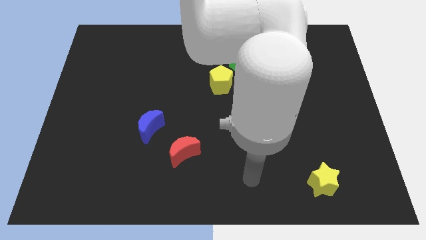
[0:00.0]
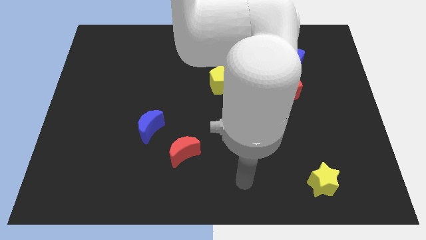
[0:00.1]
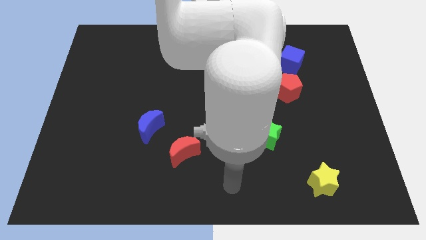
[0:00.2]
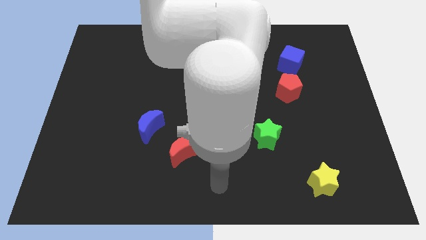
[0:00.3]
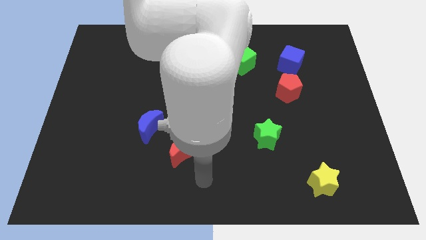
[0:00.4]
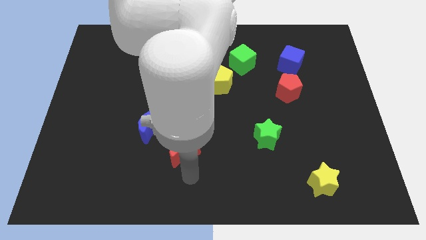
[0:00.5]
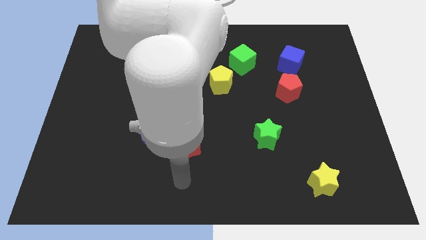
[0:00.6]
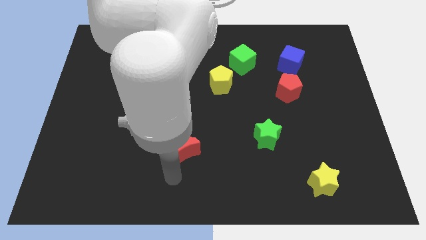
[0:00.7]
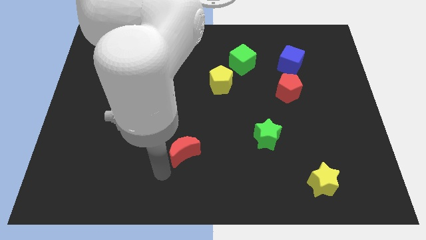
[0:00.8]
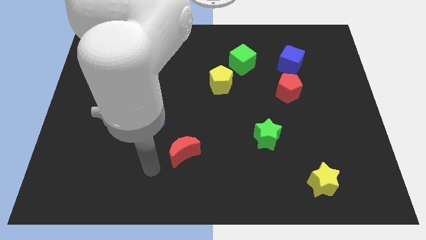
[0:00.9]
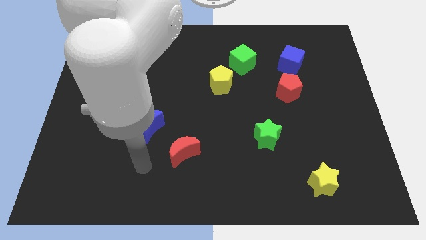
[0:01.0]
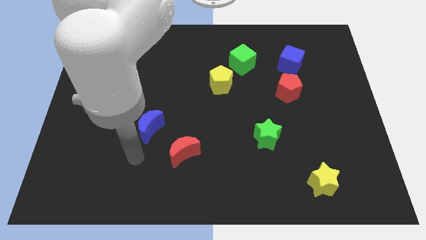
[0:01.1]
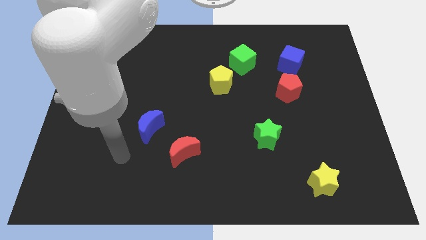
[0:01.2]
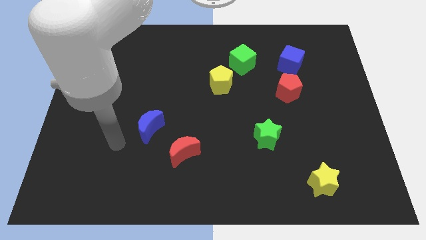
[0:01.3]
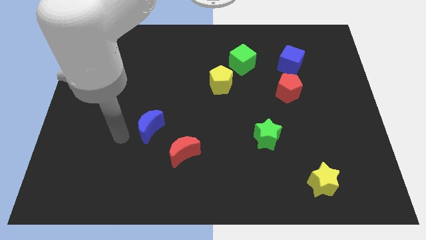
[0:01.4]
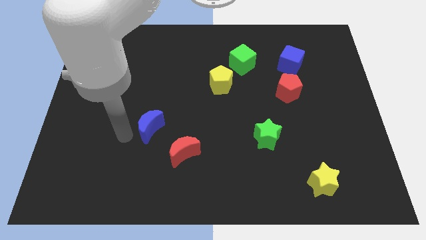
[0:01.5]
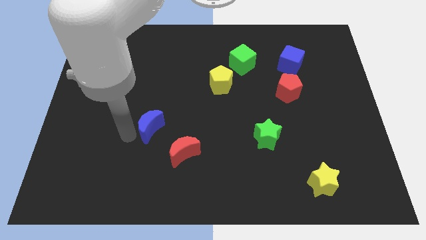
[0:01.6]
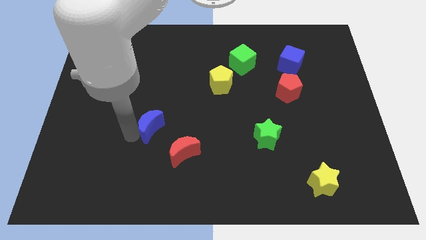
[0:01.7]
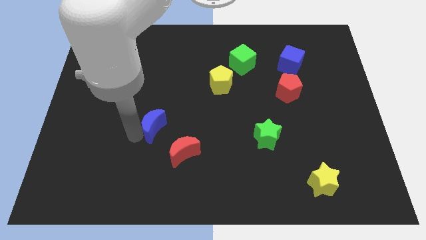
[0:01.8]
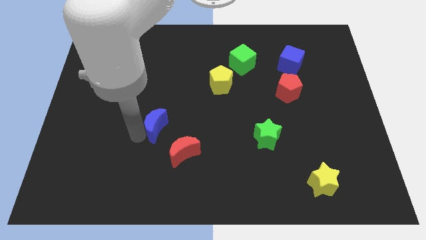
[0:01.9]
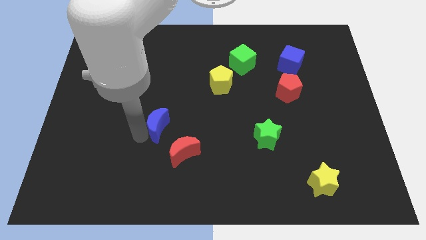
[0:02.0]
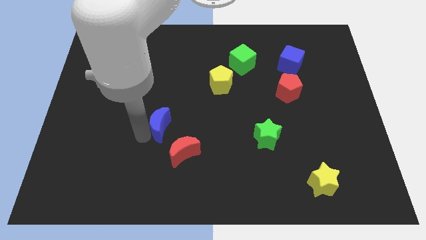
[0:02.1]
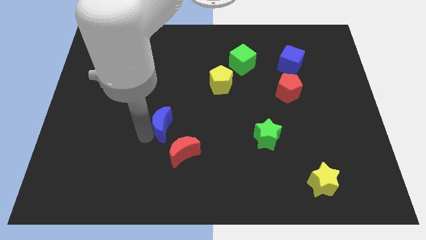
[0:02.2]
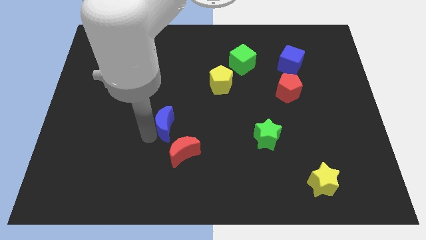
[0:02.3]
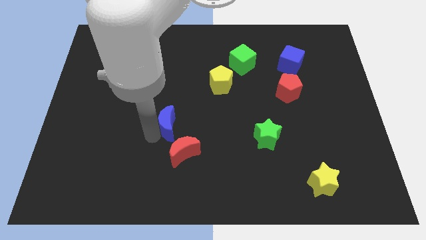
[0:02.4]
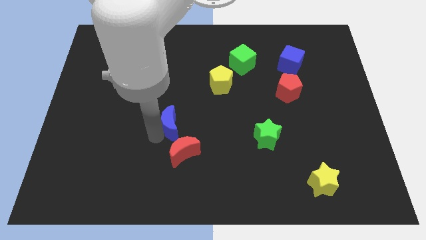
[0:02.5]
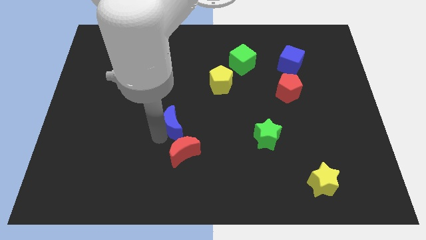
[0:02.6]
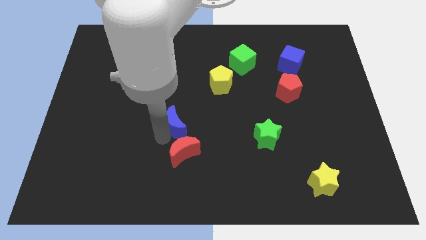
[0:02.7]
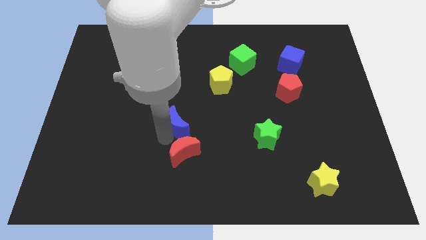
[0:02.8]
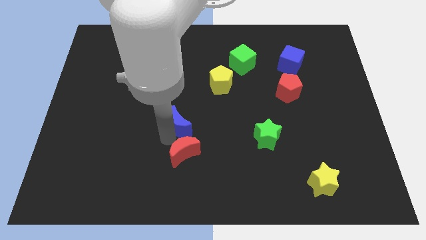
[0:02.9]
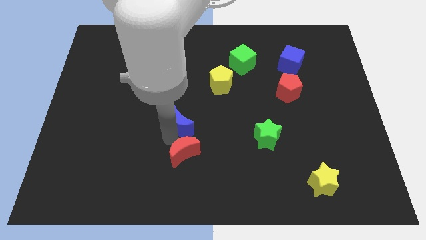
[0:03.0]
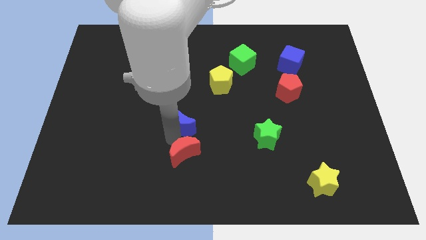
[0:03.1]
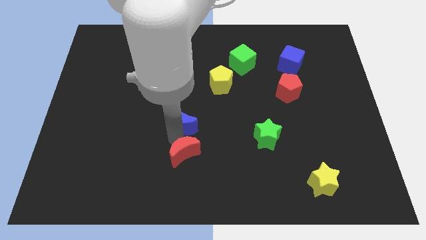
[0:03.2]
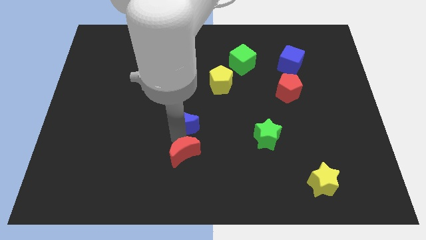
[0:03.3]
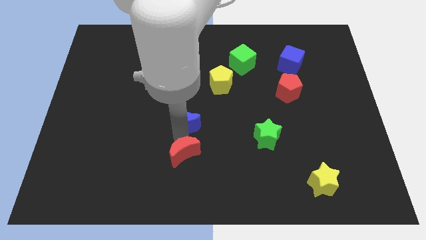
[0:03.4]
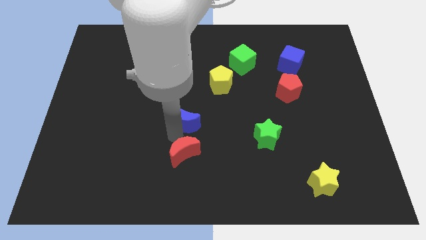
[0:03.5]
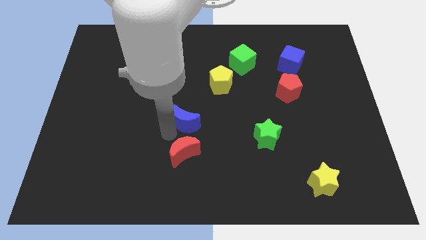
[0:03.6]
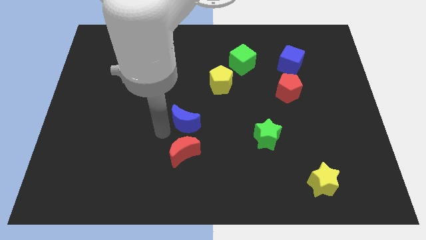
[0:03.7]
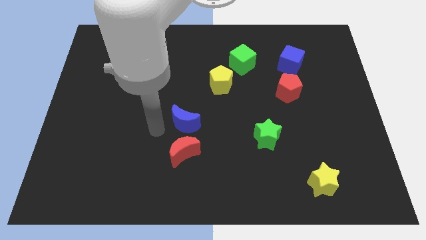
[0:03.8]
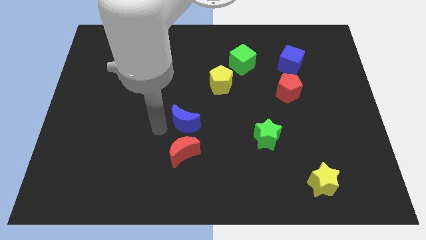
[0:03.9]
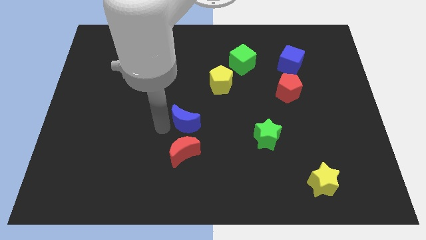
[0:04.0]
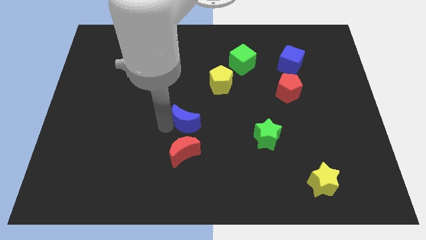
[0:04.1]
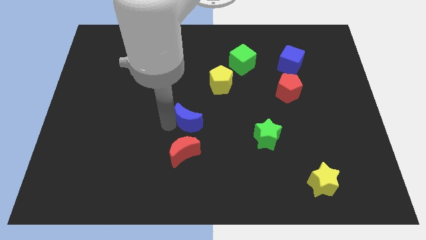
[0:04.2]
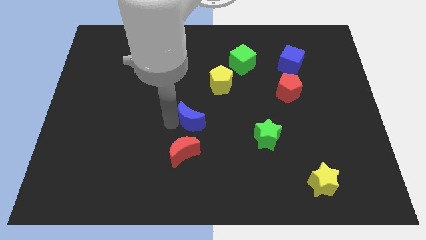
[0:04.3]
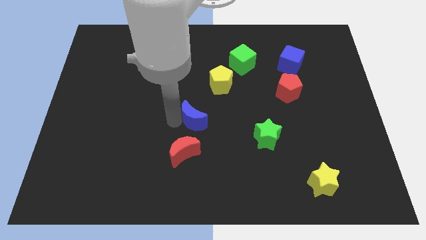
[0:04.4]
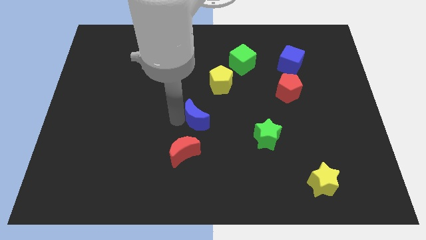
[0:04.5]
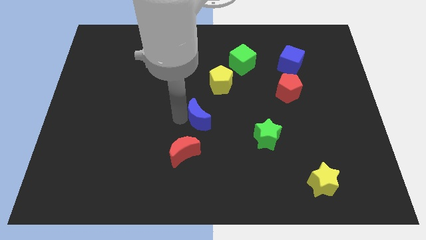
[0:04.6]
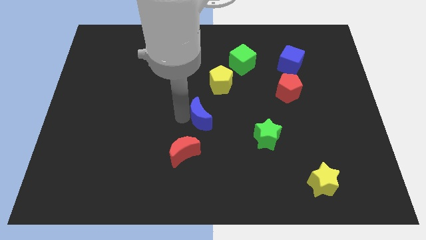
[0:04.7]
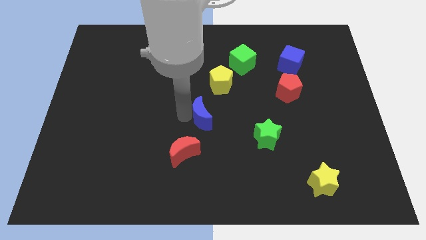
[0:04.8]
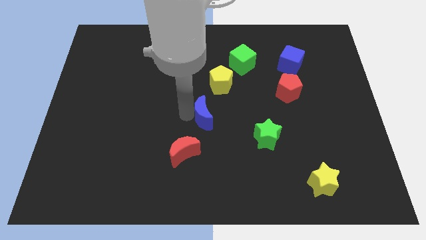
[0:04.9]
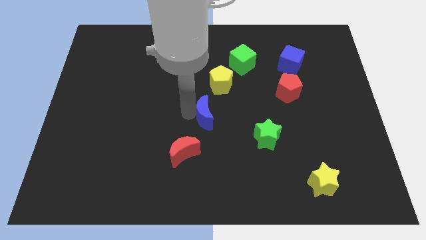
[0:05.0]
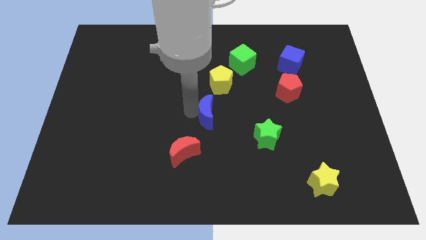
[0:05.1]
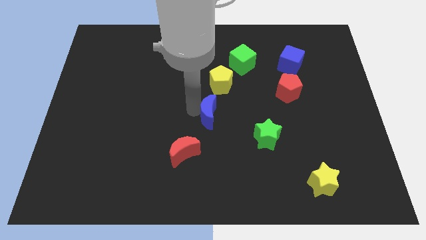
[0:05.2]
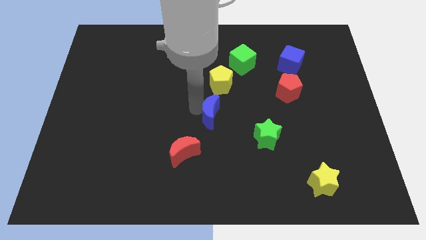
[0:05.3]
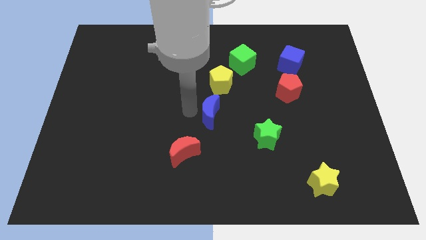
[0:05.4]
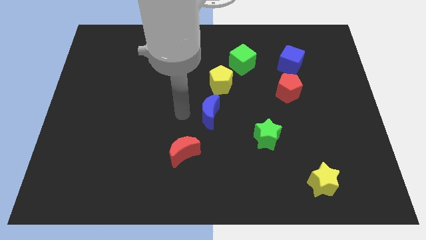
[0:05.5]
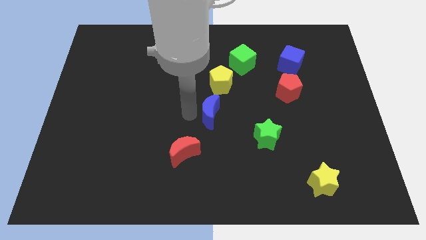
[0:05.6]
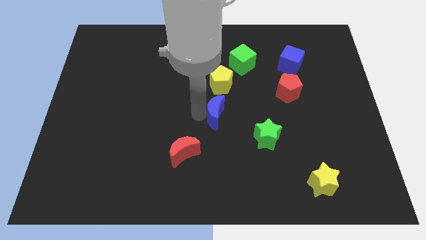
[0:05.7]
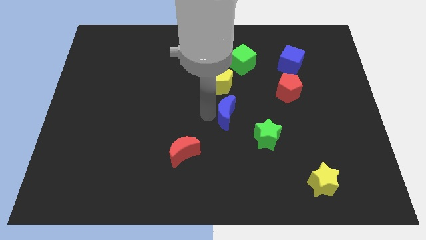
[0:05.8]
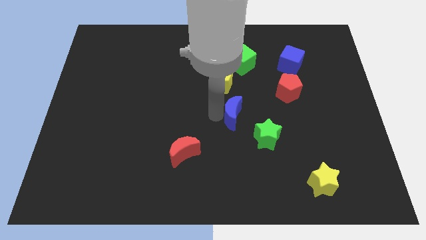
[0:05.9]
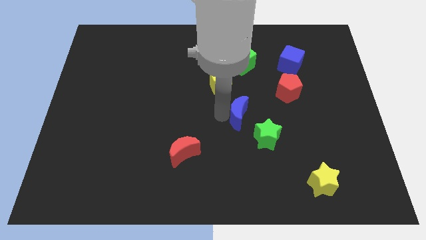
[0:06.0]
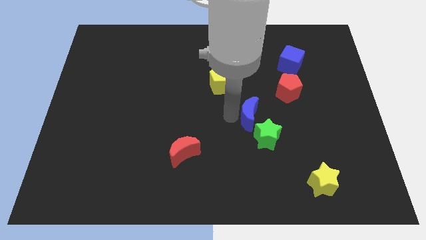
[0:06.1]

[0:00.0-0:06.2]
slide the blue moon to the right

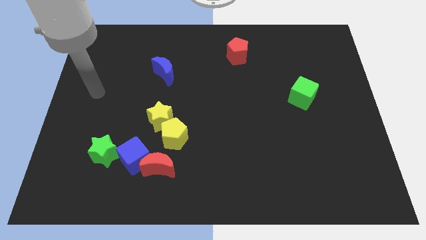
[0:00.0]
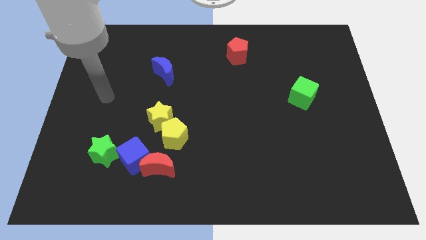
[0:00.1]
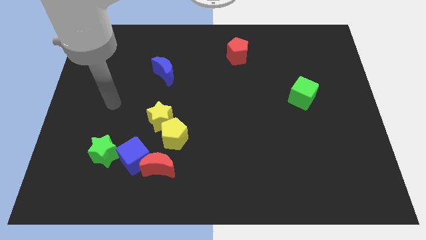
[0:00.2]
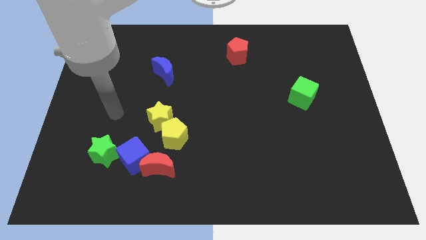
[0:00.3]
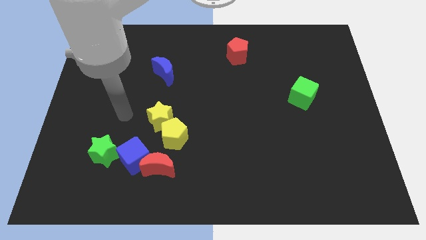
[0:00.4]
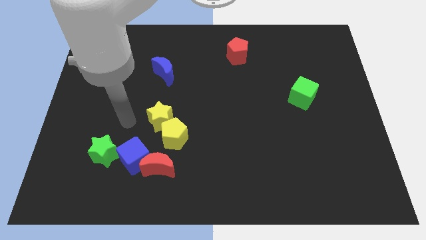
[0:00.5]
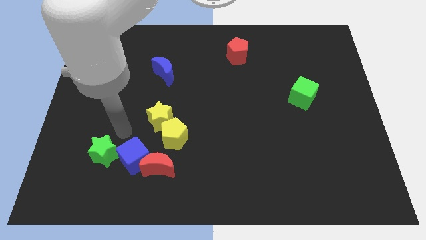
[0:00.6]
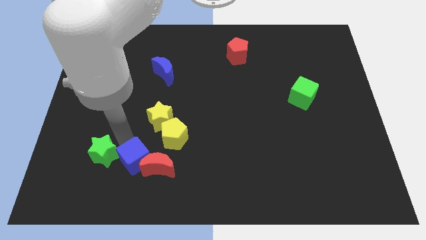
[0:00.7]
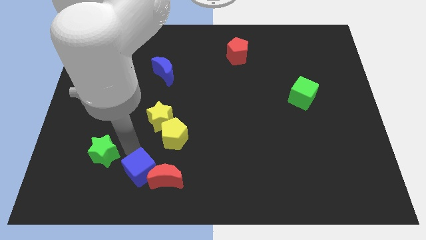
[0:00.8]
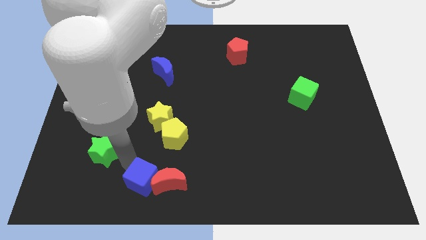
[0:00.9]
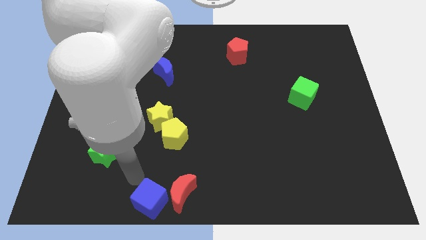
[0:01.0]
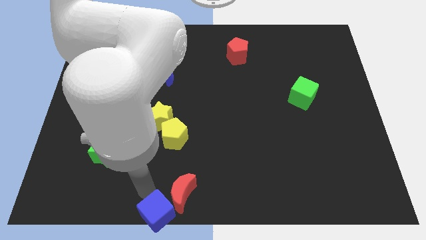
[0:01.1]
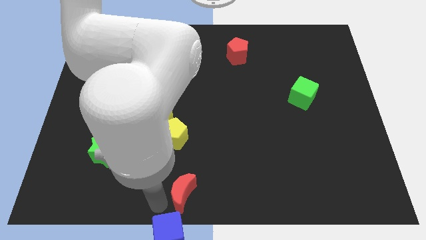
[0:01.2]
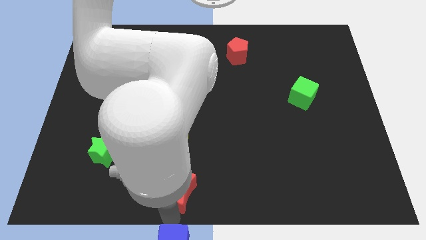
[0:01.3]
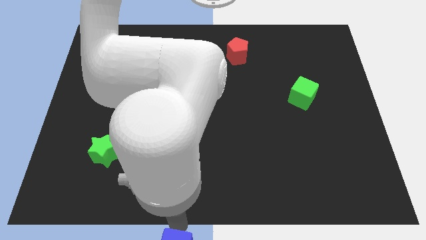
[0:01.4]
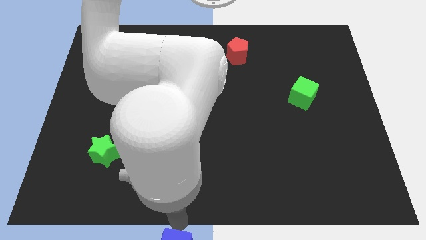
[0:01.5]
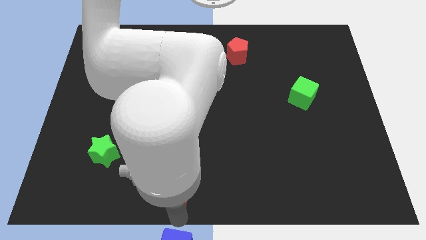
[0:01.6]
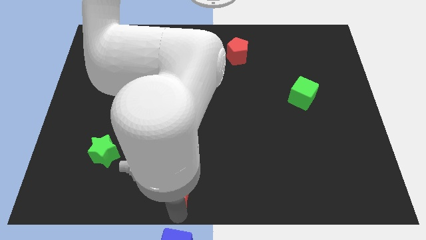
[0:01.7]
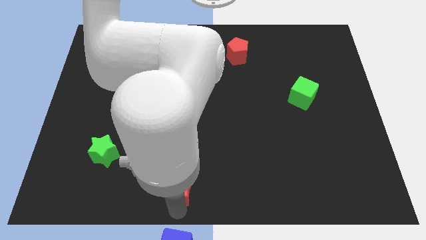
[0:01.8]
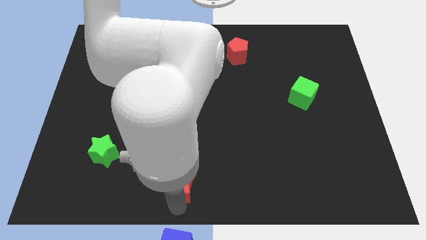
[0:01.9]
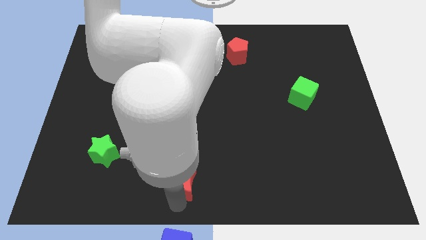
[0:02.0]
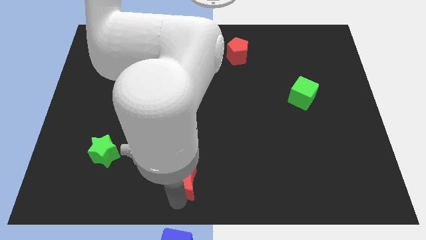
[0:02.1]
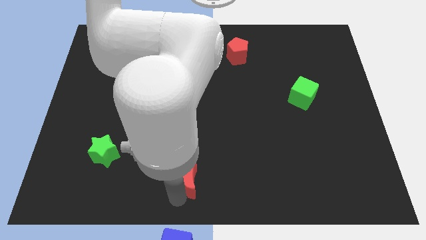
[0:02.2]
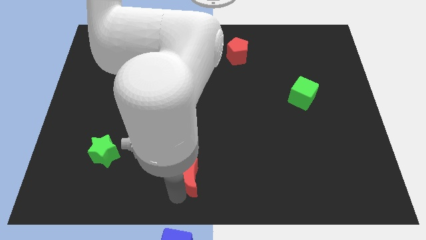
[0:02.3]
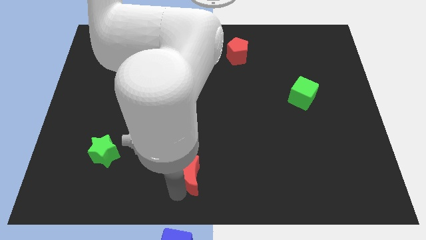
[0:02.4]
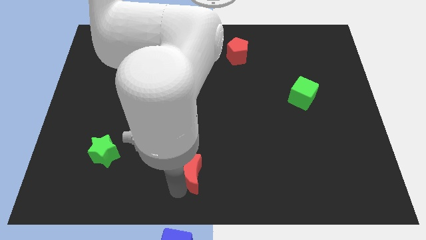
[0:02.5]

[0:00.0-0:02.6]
slide the red moon right a bit
